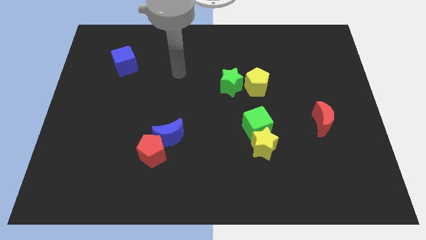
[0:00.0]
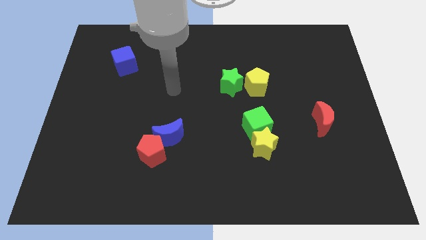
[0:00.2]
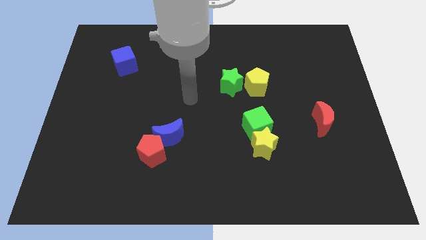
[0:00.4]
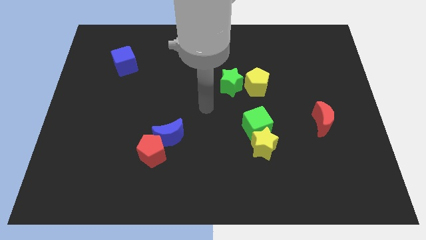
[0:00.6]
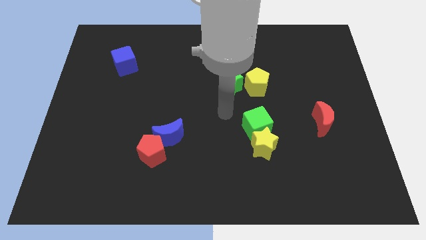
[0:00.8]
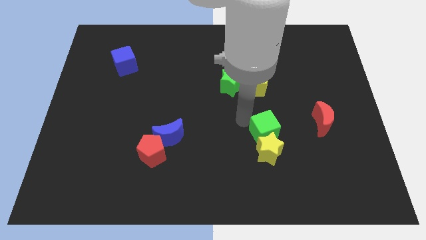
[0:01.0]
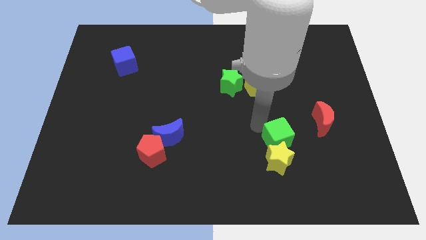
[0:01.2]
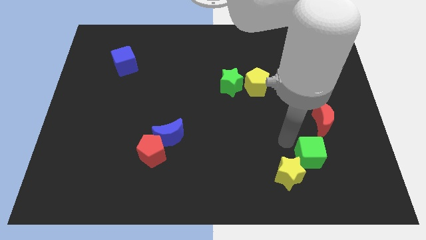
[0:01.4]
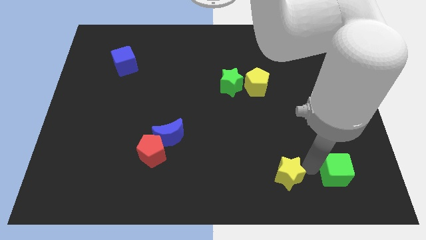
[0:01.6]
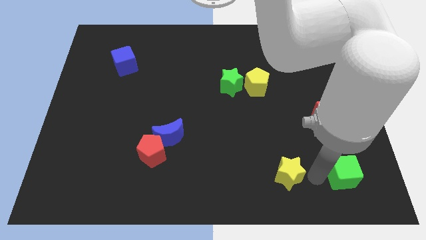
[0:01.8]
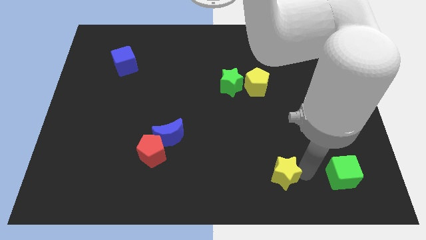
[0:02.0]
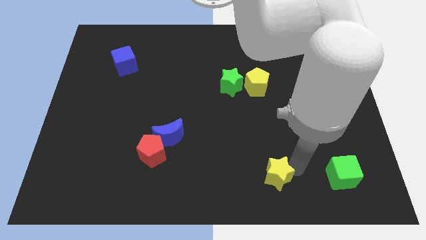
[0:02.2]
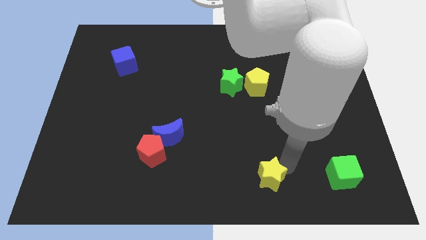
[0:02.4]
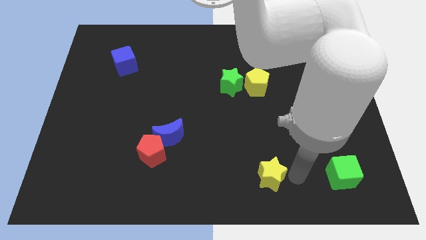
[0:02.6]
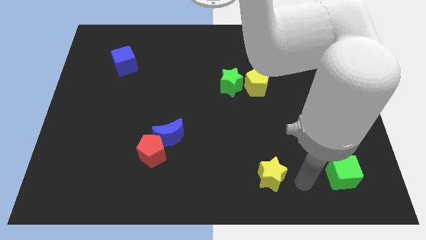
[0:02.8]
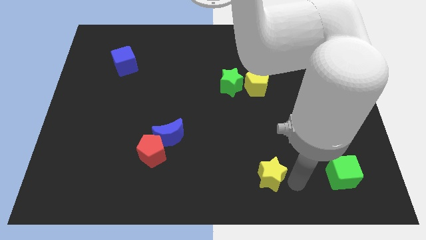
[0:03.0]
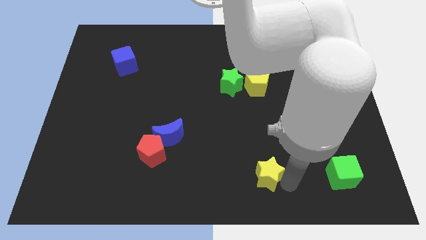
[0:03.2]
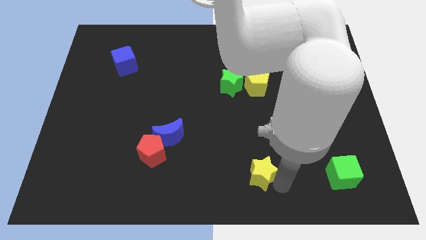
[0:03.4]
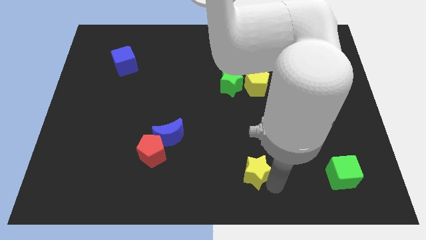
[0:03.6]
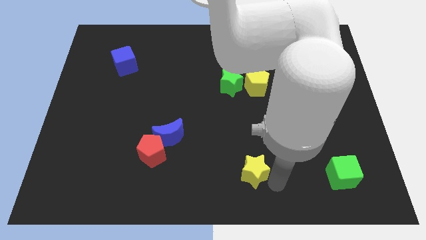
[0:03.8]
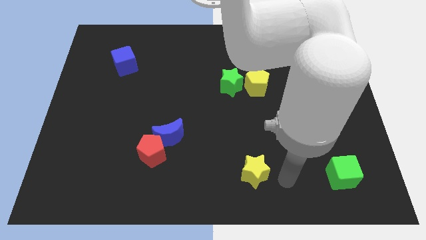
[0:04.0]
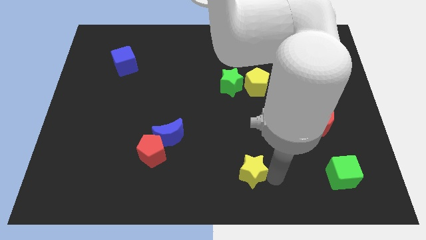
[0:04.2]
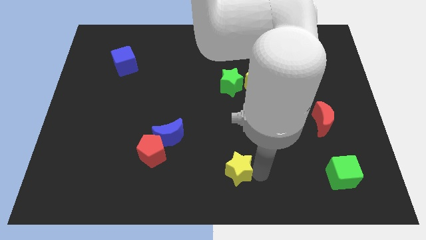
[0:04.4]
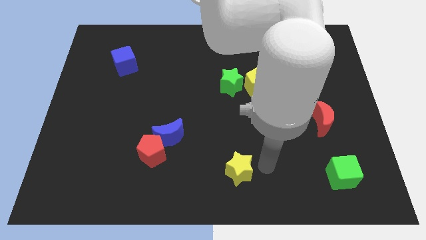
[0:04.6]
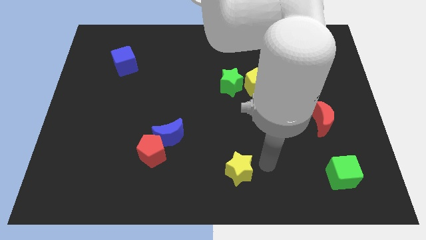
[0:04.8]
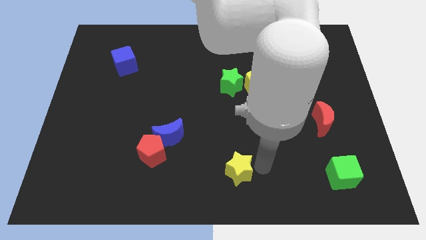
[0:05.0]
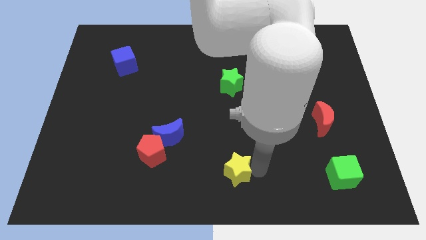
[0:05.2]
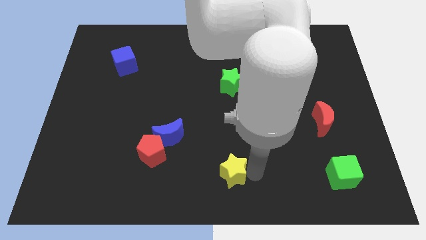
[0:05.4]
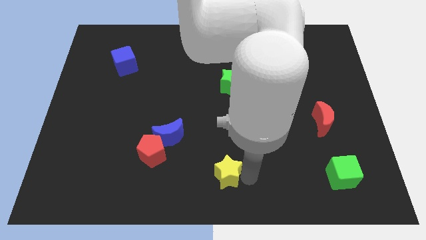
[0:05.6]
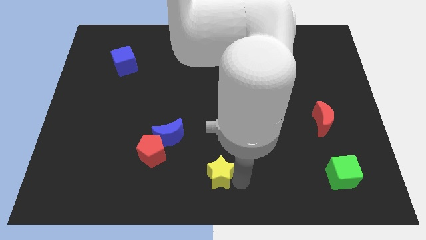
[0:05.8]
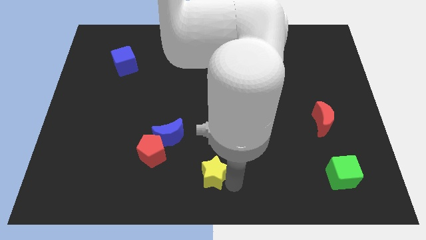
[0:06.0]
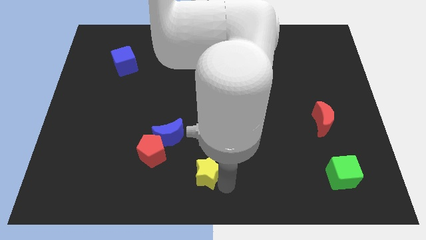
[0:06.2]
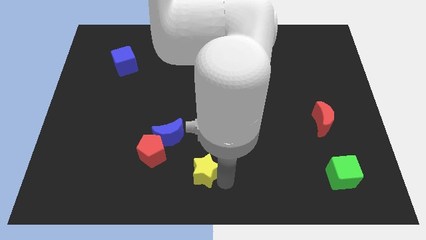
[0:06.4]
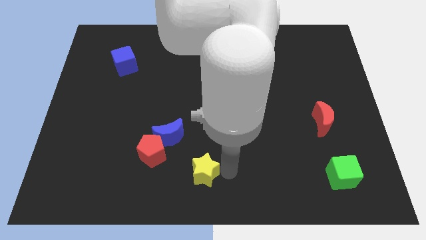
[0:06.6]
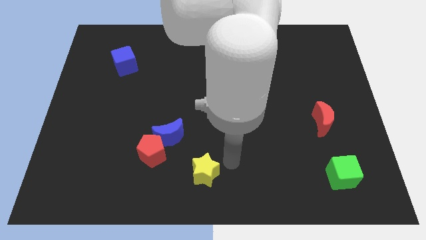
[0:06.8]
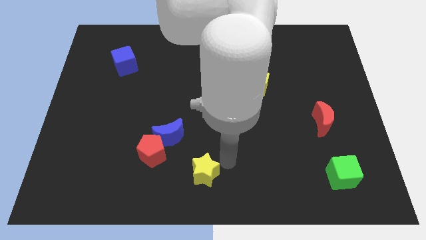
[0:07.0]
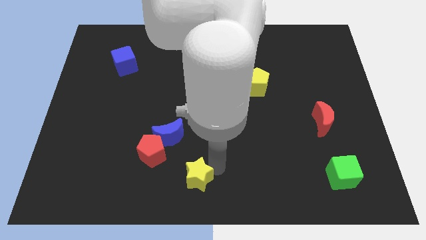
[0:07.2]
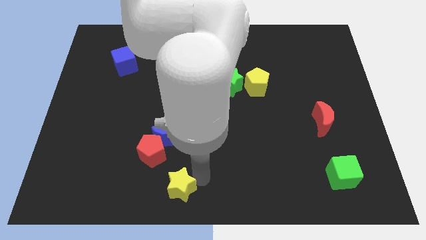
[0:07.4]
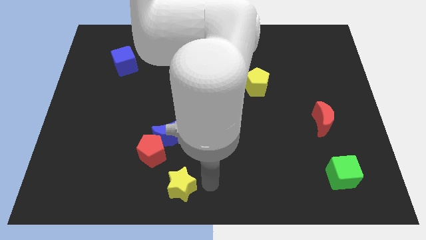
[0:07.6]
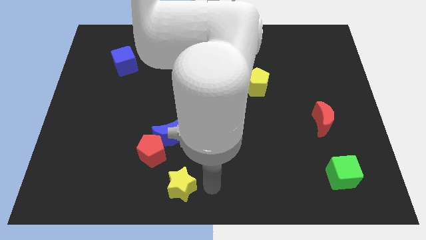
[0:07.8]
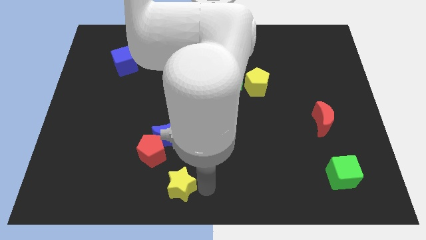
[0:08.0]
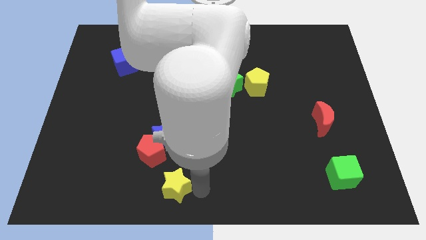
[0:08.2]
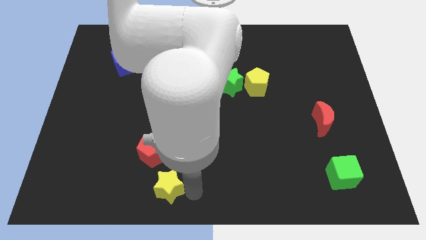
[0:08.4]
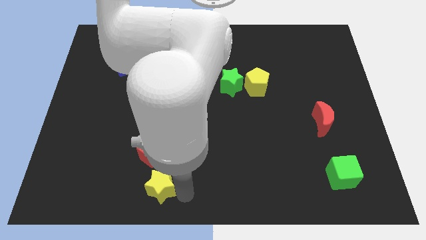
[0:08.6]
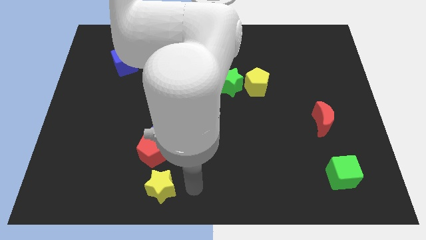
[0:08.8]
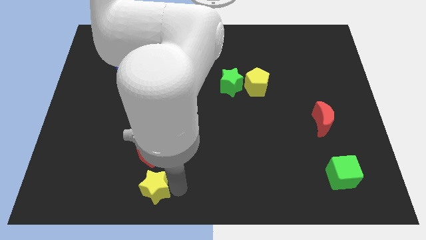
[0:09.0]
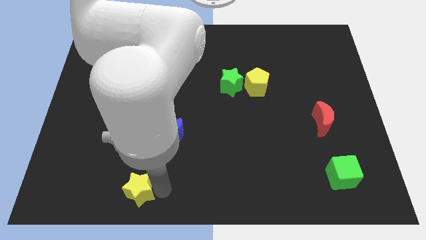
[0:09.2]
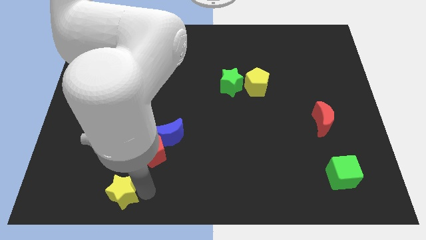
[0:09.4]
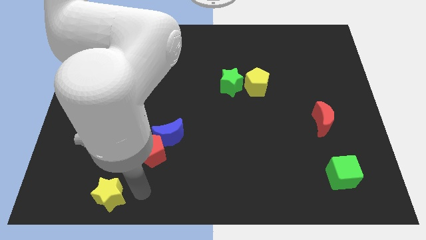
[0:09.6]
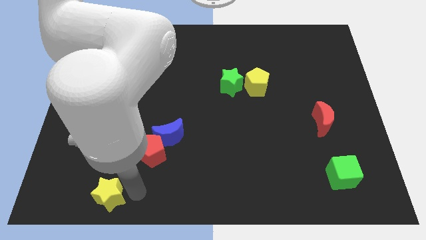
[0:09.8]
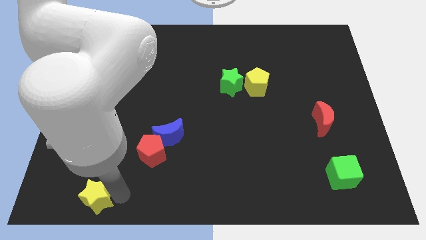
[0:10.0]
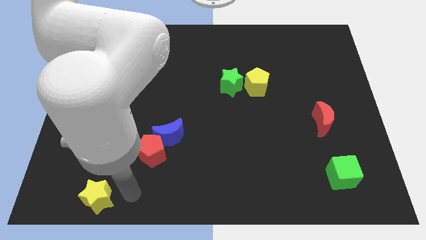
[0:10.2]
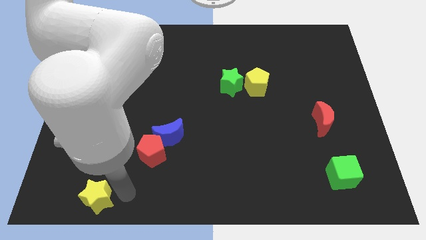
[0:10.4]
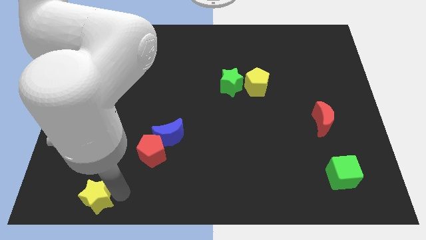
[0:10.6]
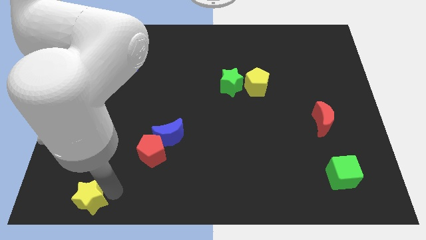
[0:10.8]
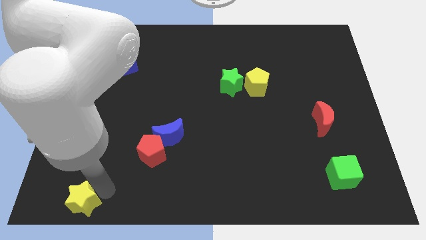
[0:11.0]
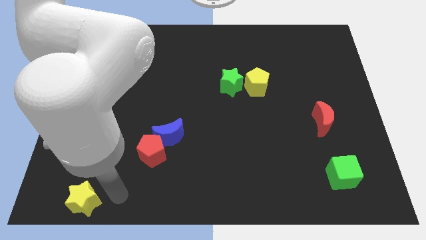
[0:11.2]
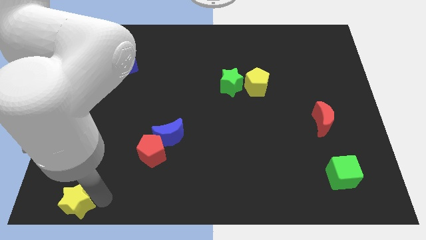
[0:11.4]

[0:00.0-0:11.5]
move the yellow star to the bottom left corner
